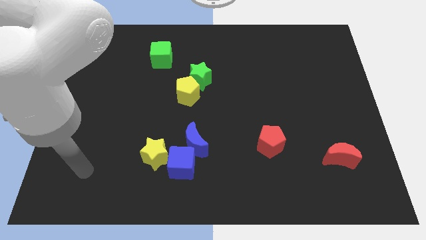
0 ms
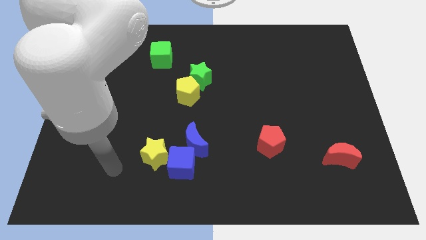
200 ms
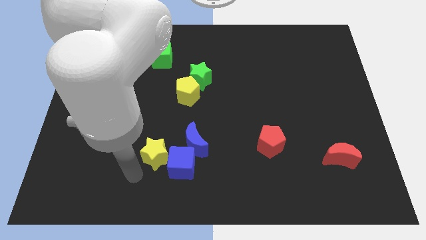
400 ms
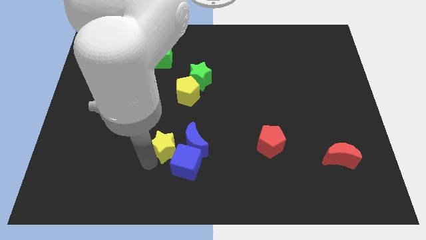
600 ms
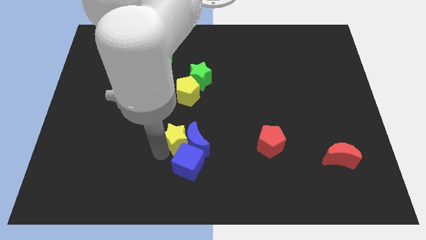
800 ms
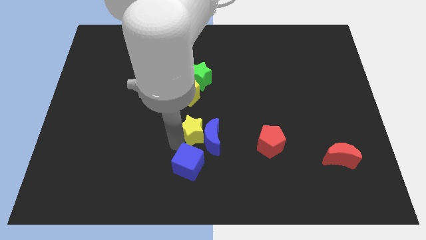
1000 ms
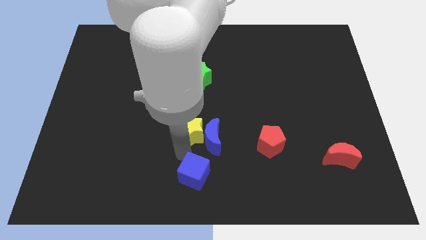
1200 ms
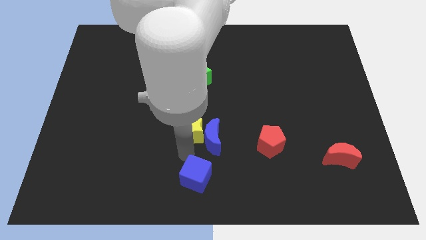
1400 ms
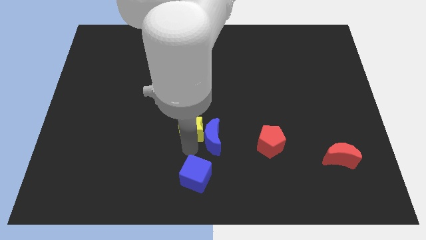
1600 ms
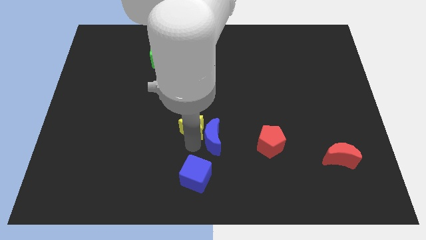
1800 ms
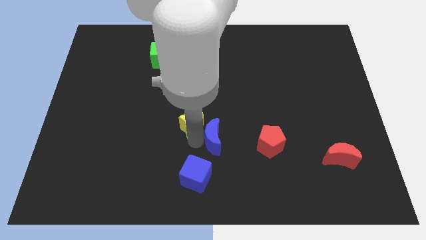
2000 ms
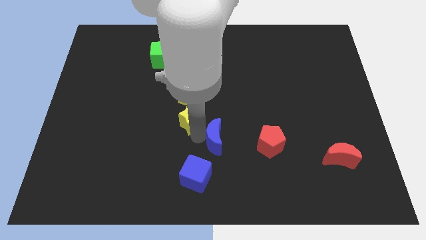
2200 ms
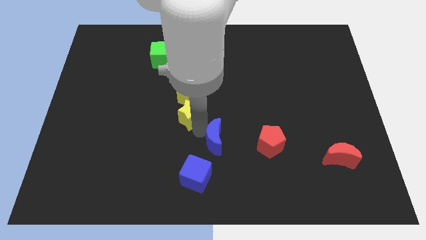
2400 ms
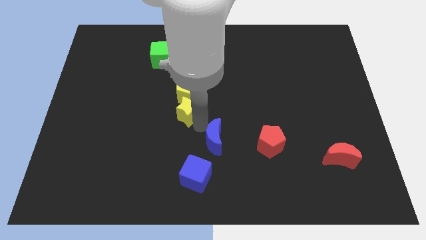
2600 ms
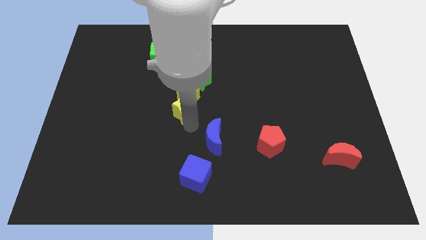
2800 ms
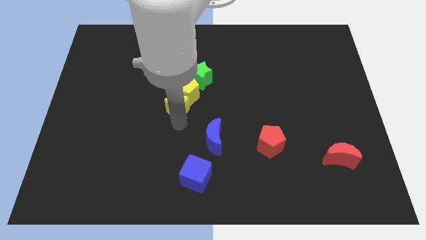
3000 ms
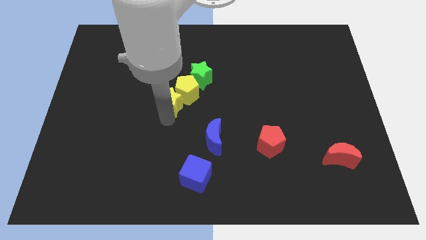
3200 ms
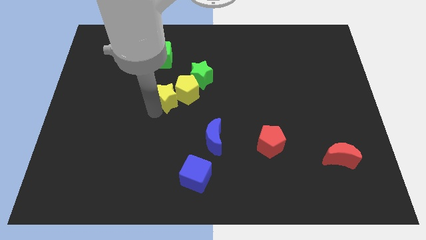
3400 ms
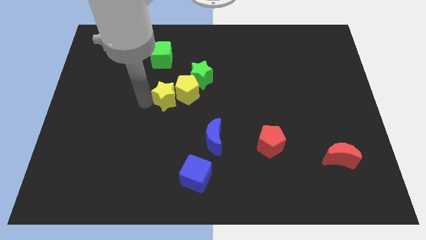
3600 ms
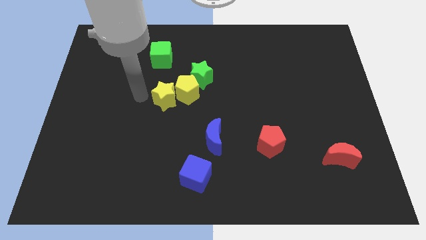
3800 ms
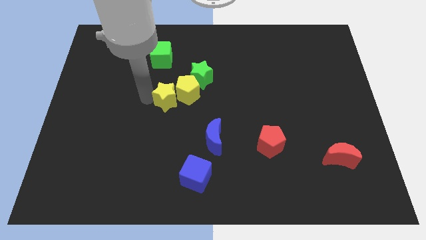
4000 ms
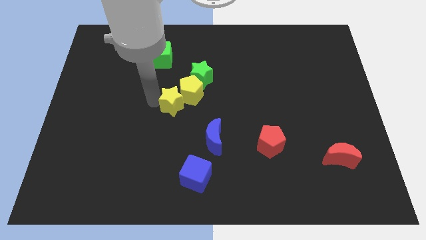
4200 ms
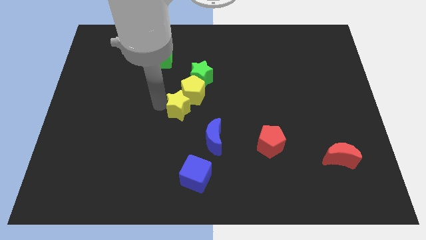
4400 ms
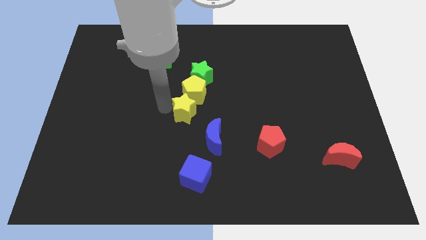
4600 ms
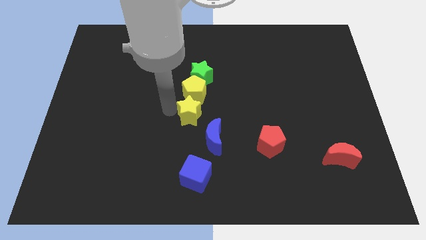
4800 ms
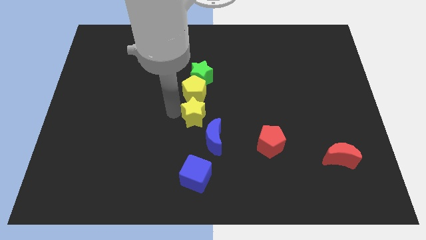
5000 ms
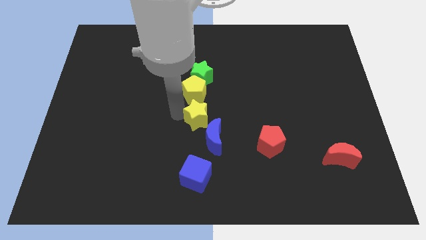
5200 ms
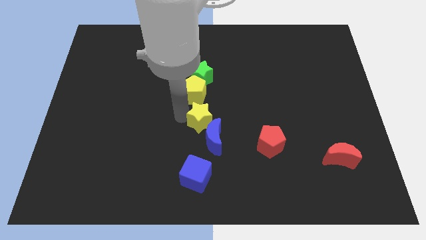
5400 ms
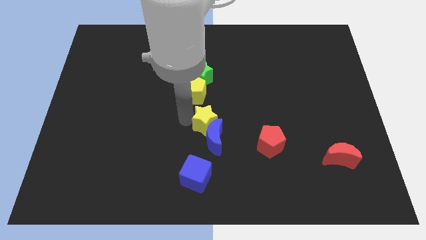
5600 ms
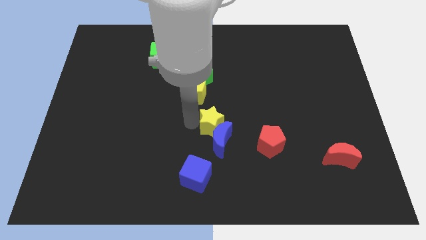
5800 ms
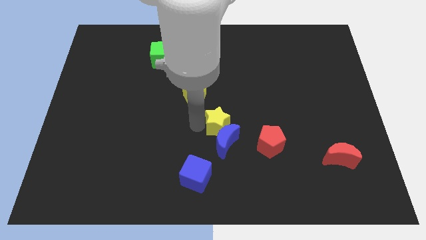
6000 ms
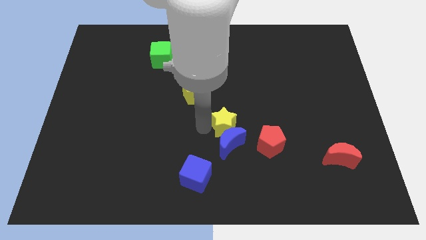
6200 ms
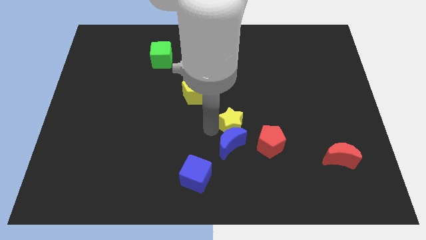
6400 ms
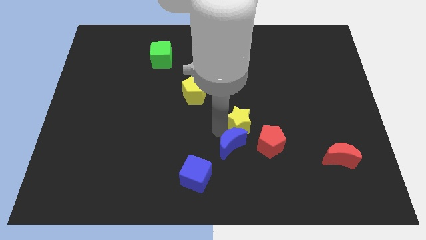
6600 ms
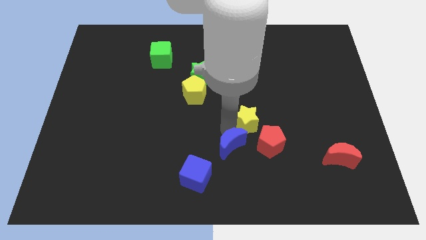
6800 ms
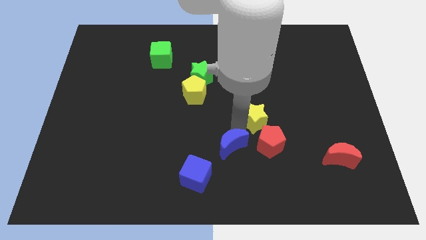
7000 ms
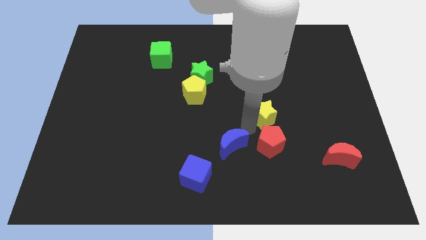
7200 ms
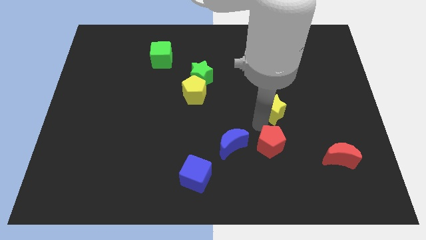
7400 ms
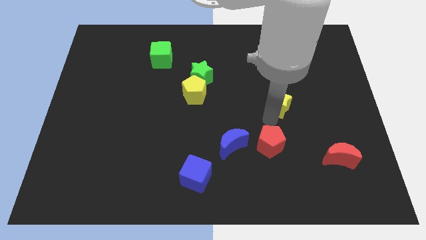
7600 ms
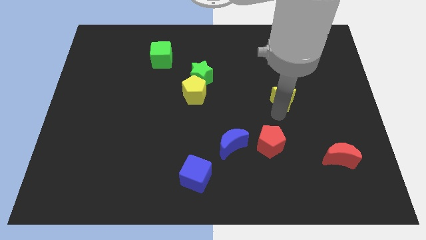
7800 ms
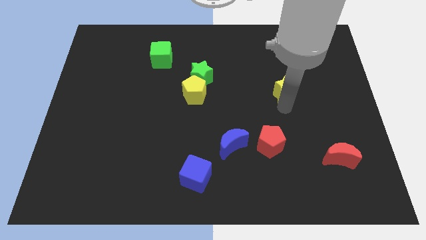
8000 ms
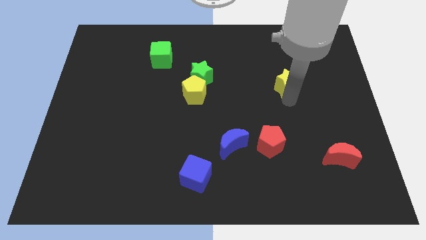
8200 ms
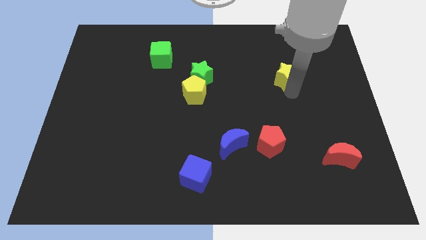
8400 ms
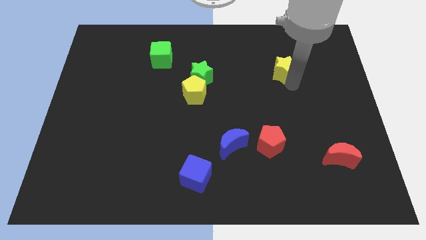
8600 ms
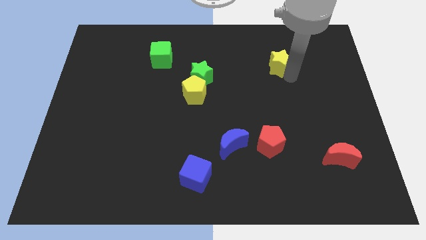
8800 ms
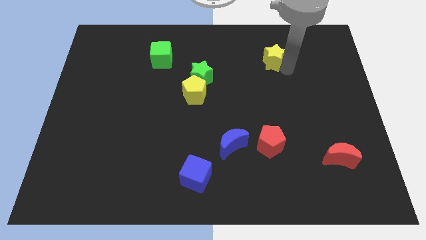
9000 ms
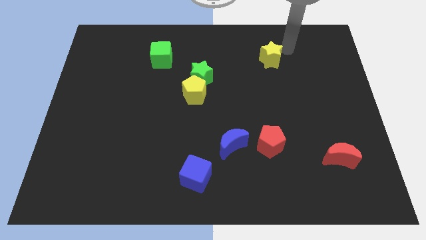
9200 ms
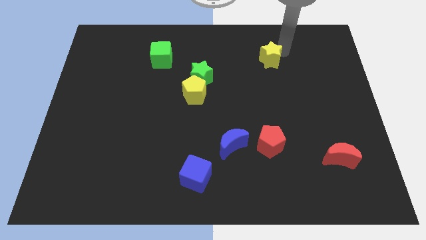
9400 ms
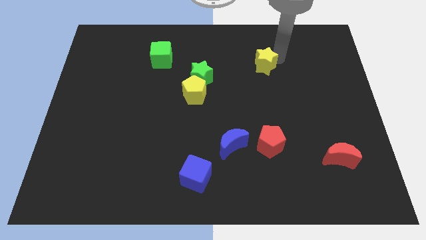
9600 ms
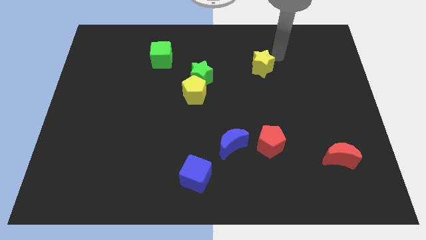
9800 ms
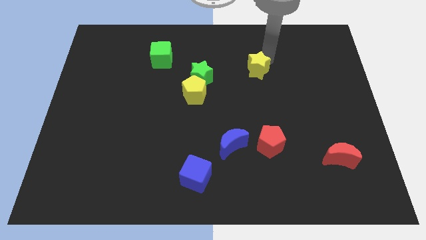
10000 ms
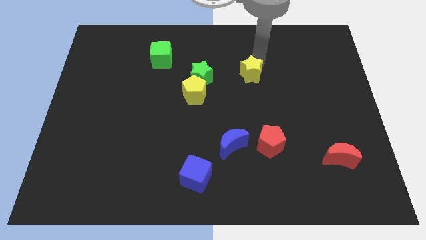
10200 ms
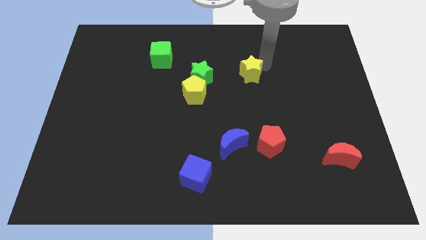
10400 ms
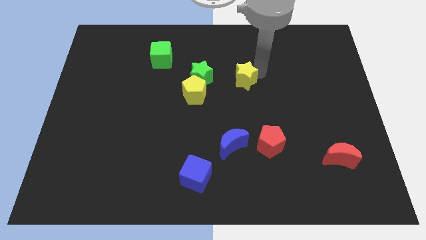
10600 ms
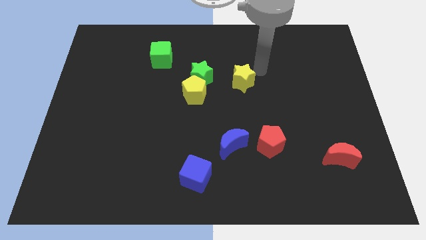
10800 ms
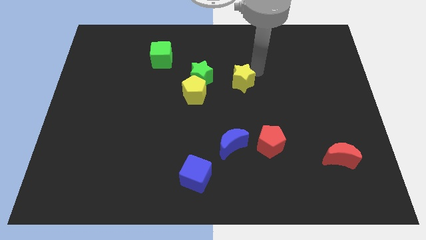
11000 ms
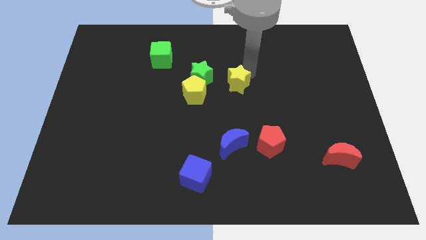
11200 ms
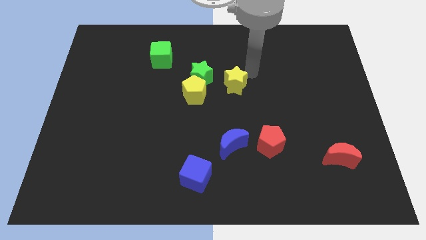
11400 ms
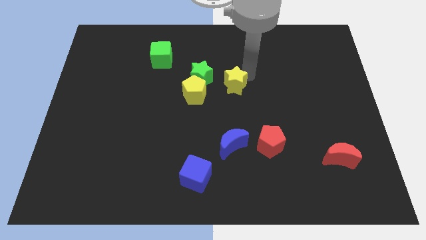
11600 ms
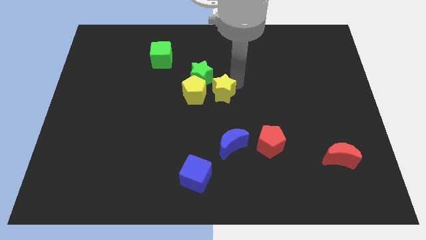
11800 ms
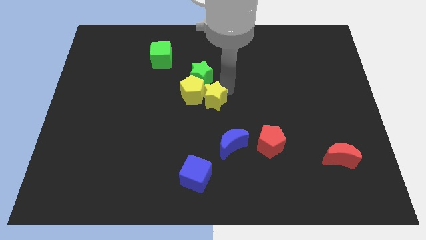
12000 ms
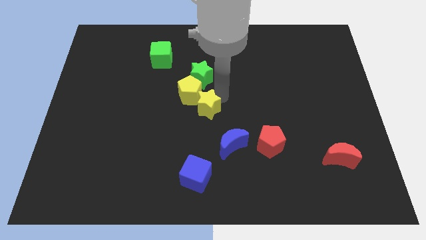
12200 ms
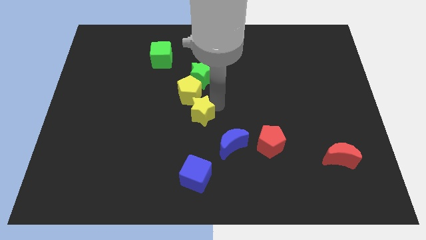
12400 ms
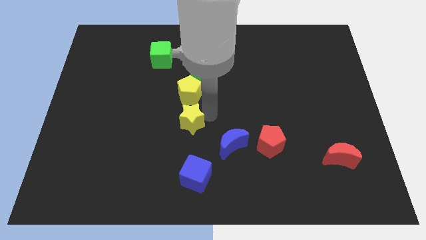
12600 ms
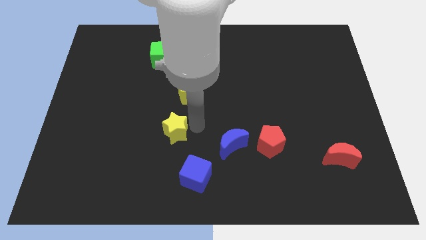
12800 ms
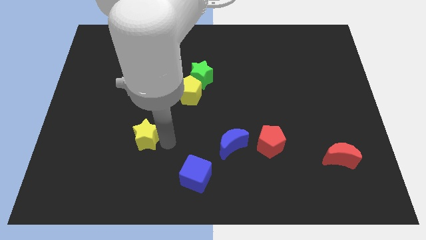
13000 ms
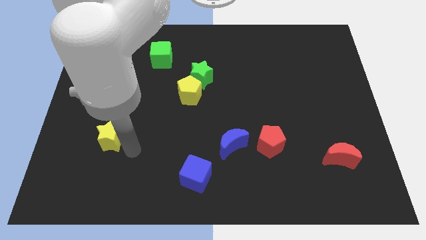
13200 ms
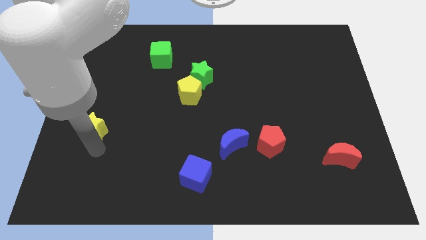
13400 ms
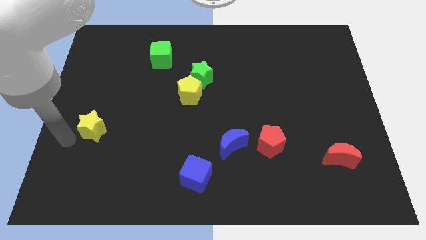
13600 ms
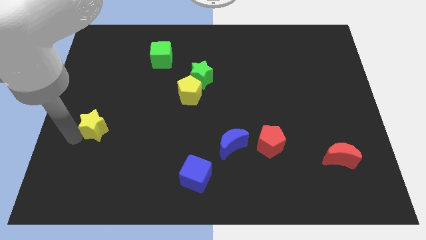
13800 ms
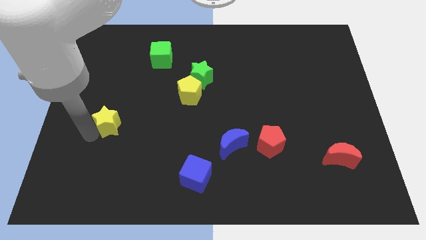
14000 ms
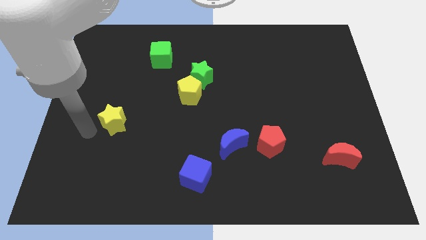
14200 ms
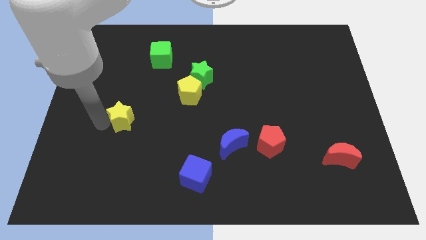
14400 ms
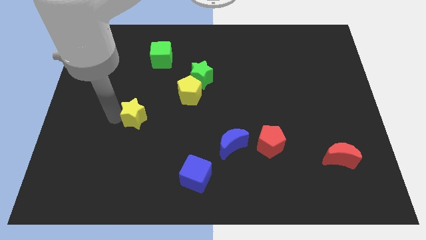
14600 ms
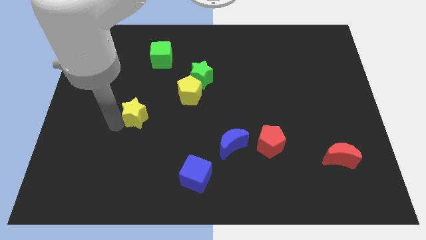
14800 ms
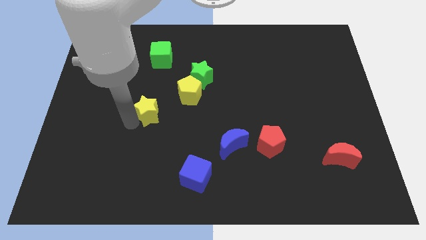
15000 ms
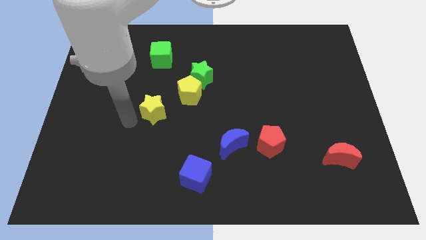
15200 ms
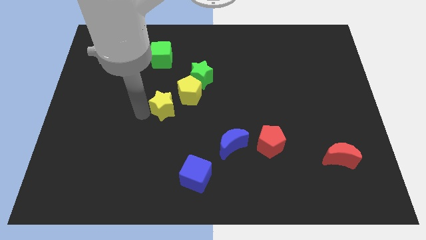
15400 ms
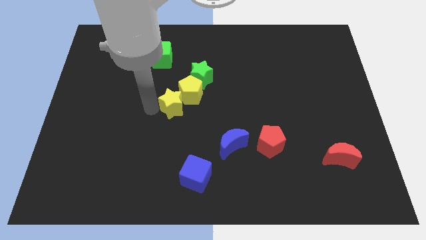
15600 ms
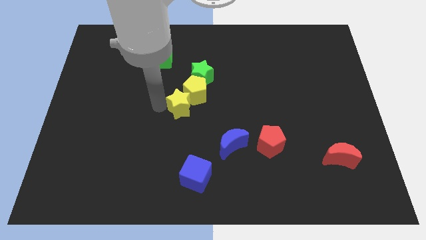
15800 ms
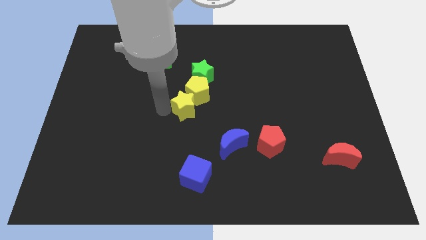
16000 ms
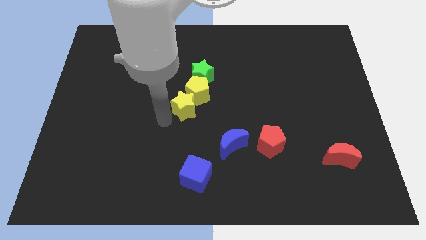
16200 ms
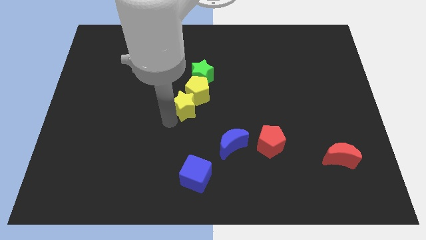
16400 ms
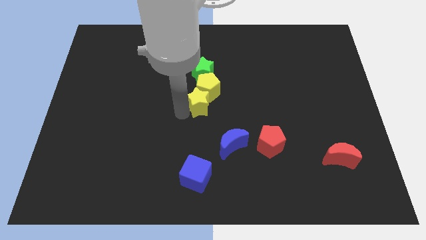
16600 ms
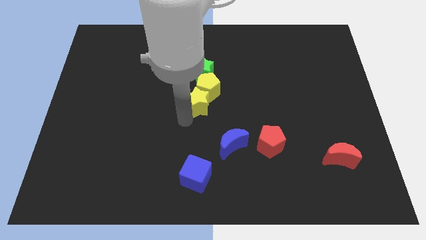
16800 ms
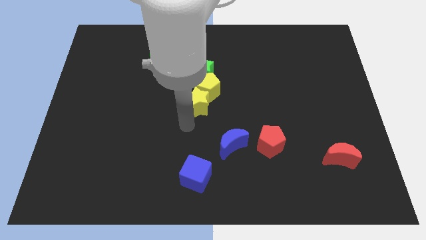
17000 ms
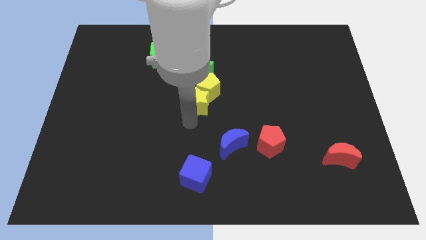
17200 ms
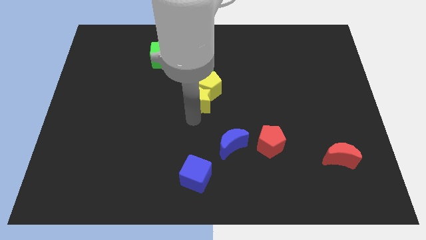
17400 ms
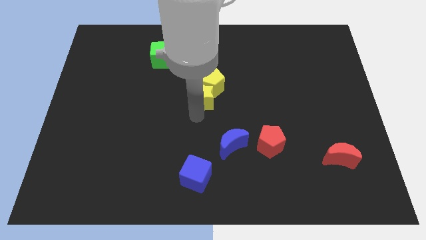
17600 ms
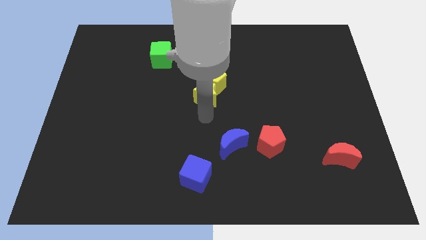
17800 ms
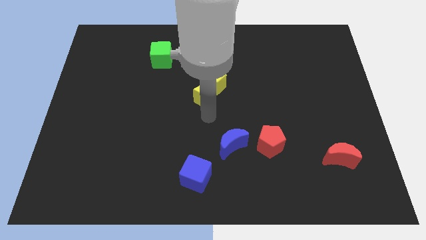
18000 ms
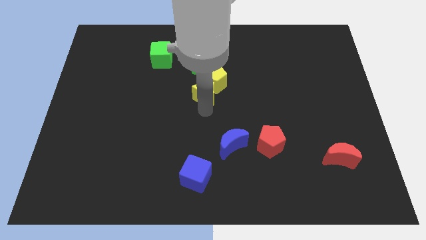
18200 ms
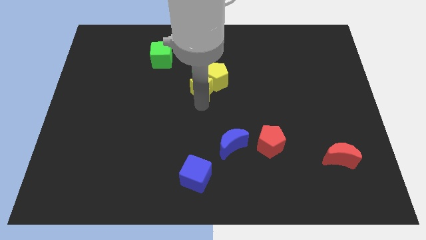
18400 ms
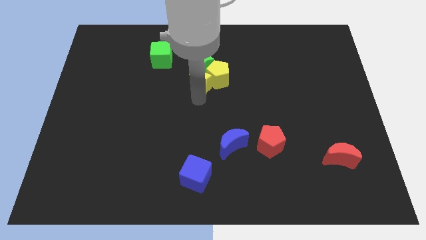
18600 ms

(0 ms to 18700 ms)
slide the yellow star next to the green star
